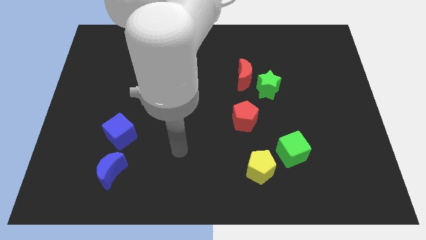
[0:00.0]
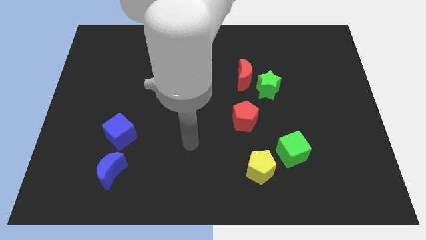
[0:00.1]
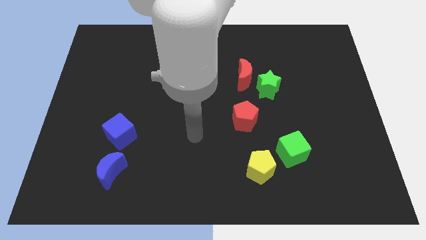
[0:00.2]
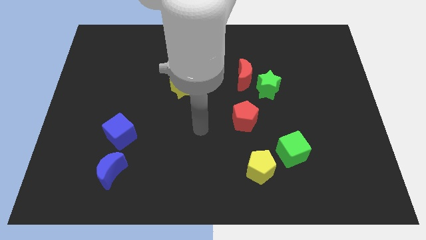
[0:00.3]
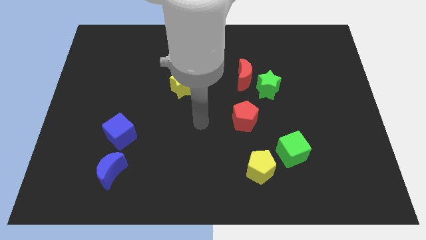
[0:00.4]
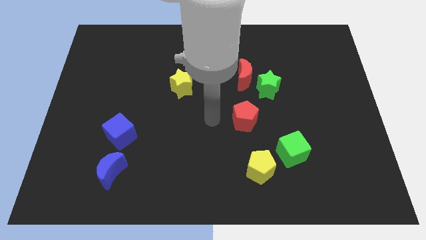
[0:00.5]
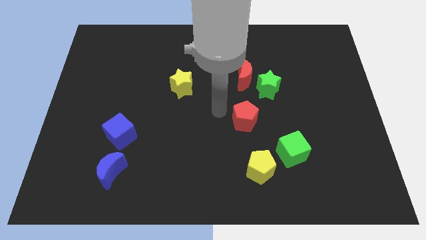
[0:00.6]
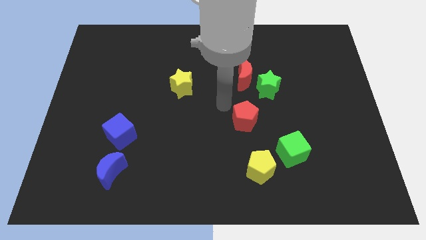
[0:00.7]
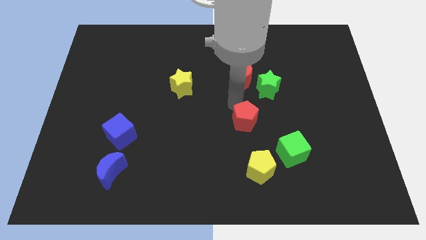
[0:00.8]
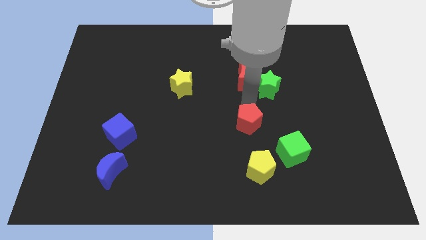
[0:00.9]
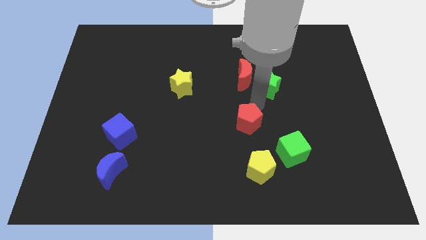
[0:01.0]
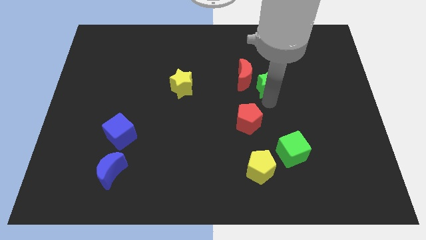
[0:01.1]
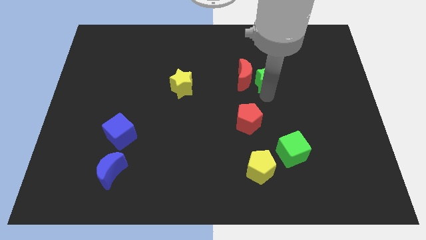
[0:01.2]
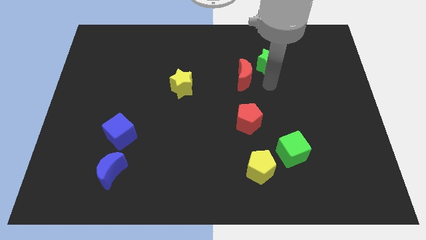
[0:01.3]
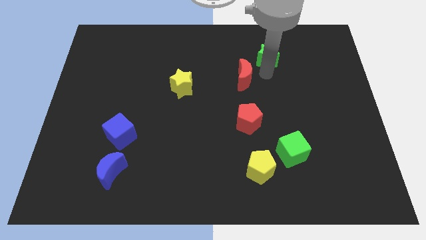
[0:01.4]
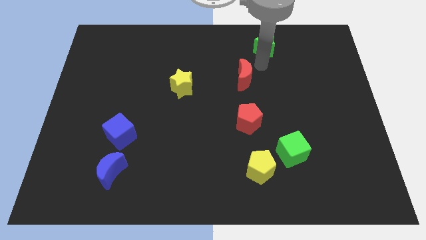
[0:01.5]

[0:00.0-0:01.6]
move the red moon away from the green star

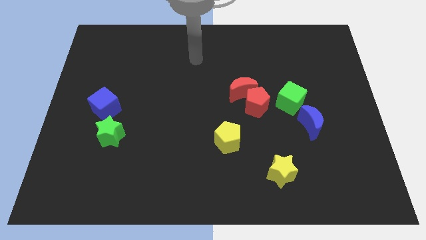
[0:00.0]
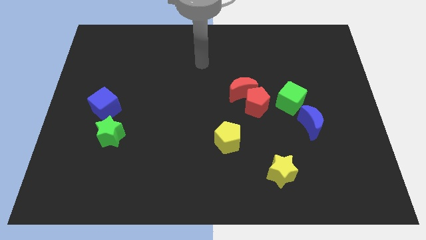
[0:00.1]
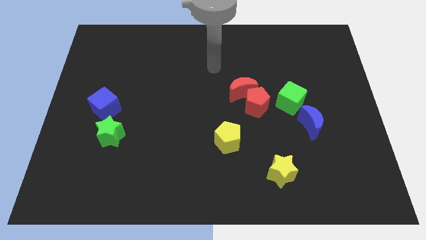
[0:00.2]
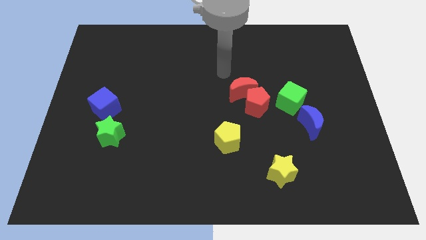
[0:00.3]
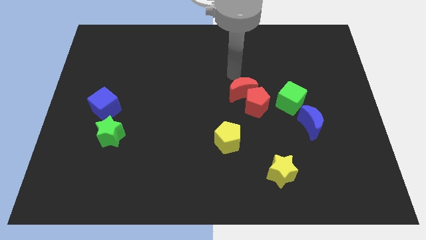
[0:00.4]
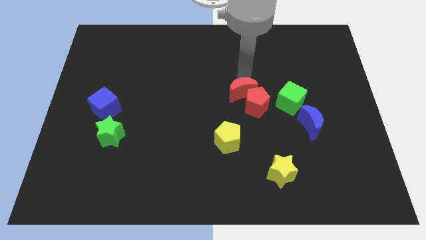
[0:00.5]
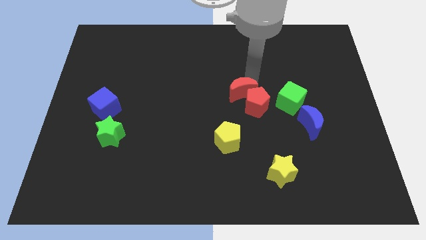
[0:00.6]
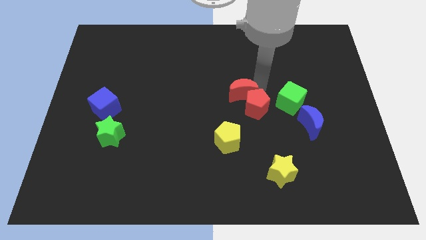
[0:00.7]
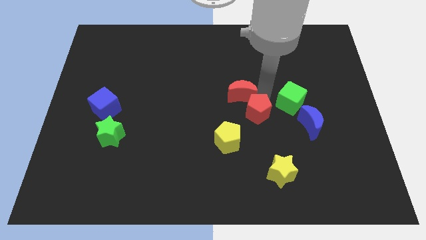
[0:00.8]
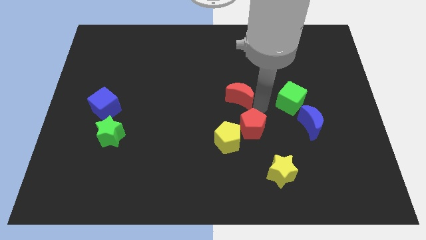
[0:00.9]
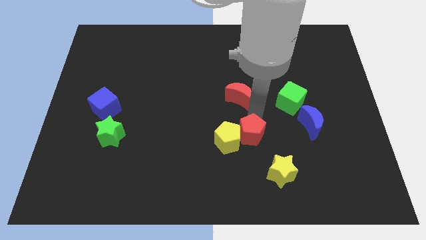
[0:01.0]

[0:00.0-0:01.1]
move the red moon away from the red pentagon

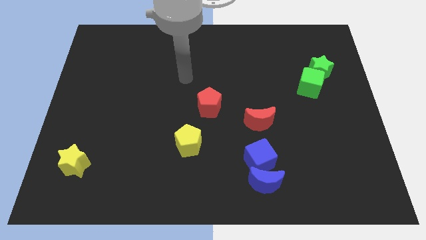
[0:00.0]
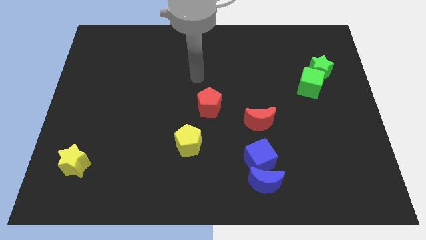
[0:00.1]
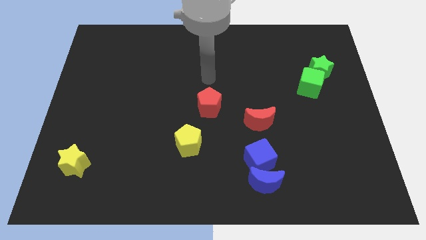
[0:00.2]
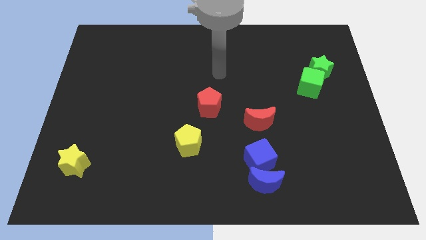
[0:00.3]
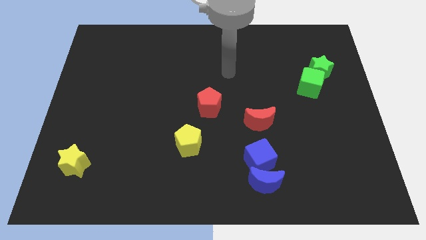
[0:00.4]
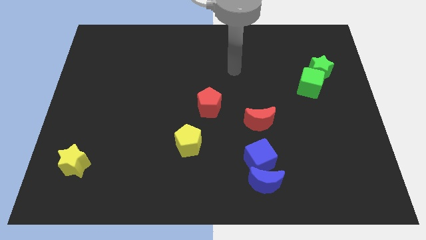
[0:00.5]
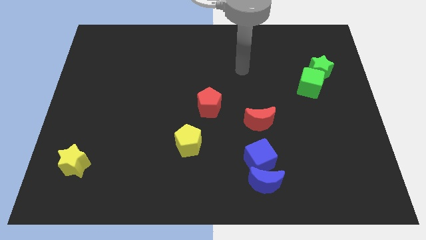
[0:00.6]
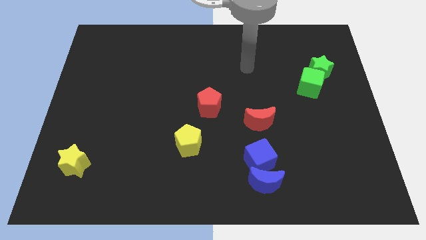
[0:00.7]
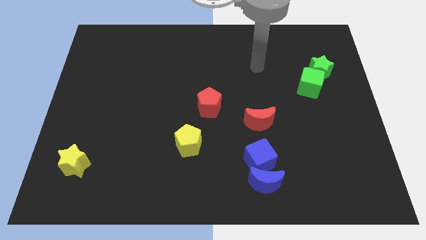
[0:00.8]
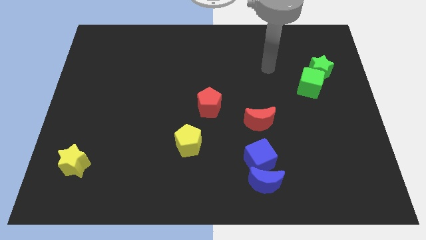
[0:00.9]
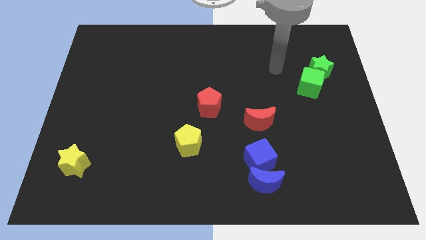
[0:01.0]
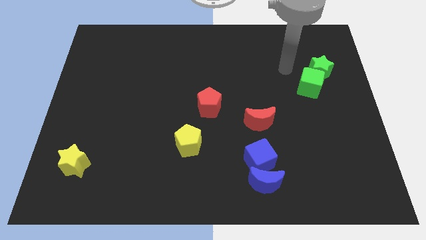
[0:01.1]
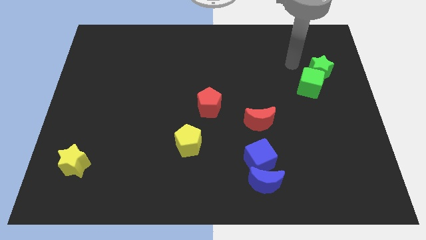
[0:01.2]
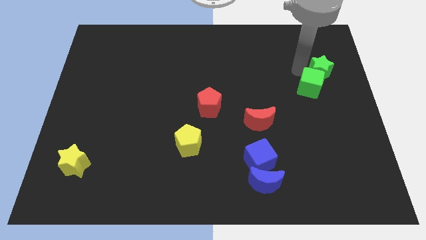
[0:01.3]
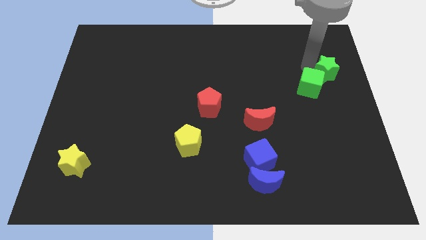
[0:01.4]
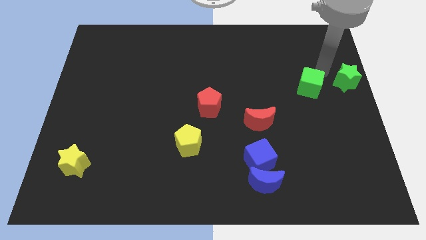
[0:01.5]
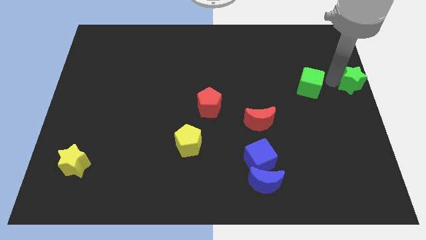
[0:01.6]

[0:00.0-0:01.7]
separate the green cube from the green star

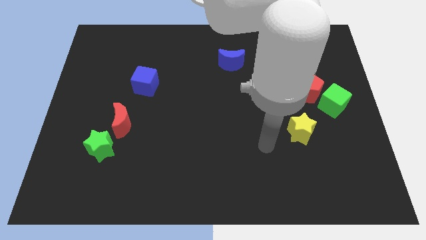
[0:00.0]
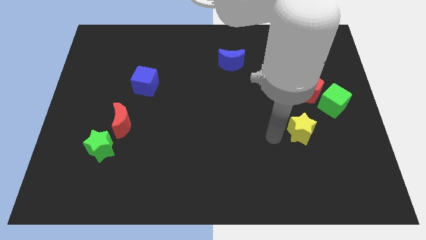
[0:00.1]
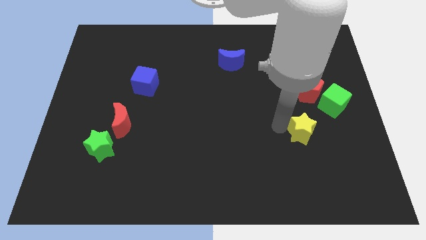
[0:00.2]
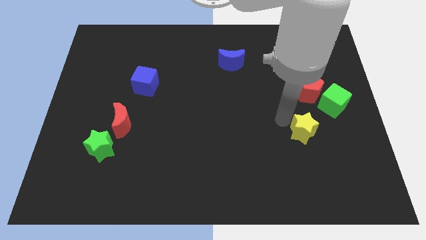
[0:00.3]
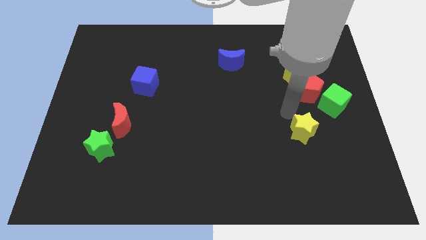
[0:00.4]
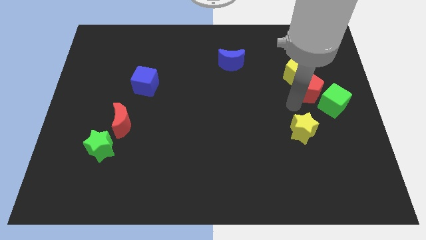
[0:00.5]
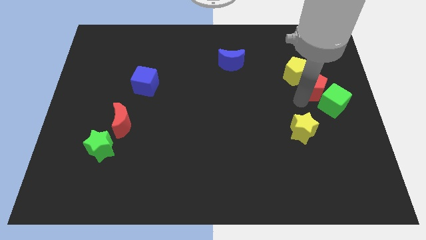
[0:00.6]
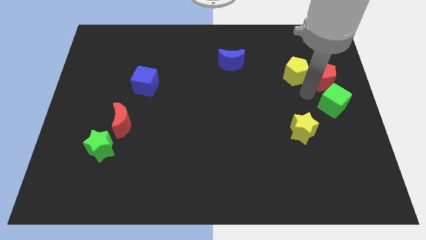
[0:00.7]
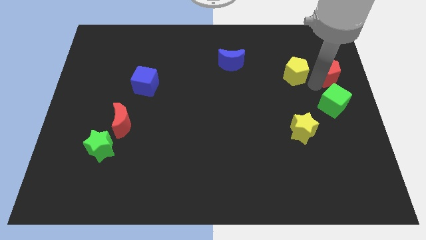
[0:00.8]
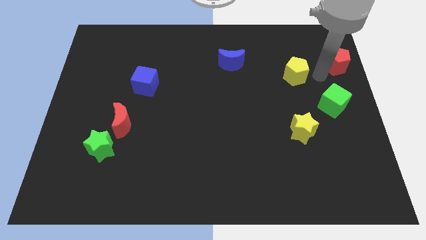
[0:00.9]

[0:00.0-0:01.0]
move the yellow pentagon away from the red pentagon

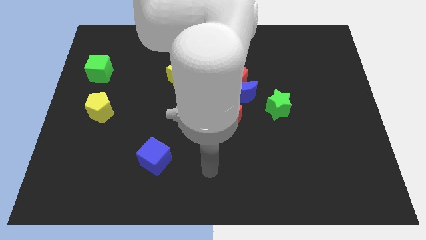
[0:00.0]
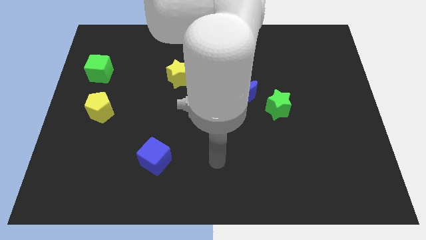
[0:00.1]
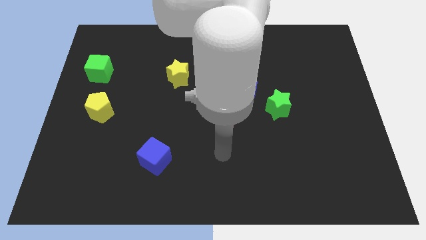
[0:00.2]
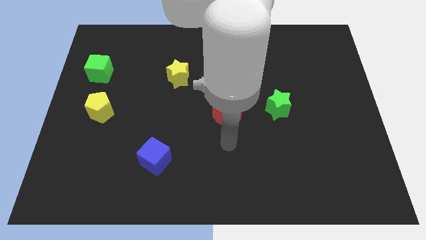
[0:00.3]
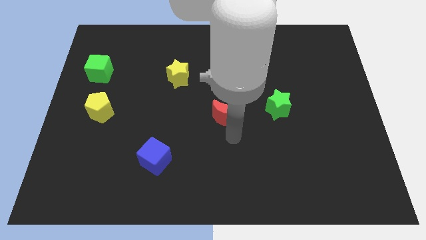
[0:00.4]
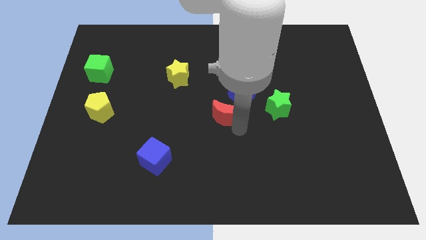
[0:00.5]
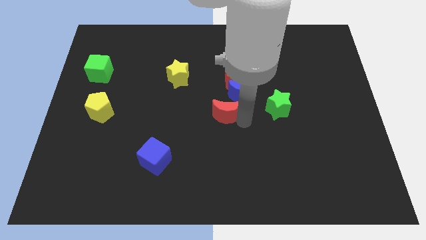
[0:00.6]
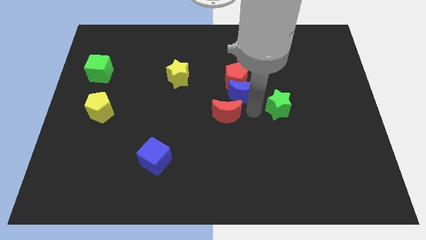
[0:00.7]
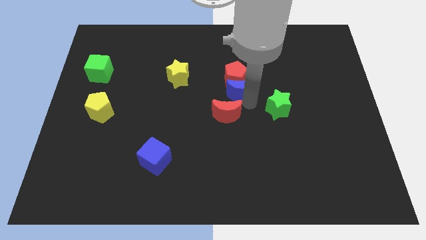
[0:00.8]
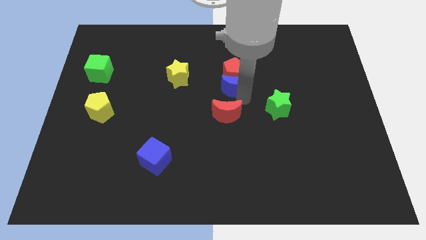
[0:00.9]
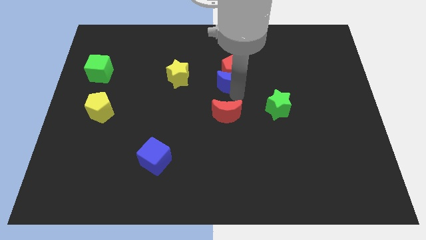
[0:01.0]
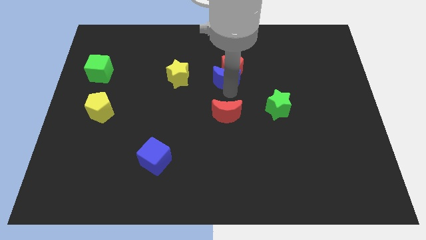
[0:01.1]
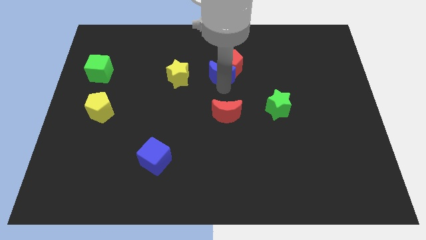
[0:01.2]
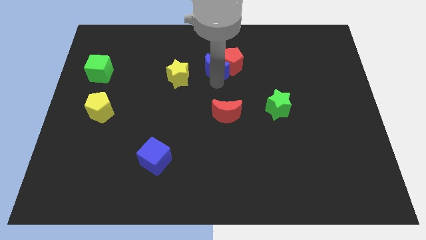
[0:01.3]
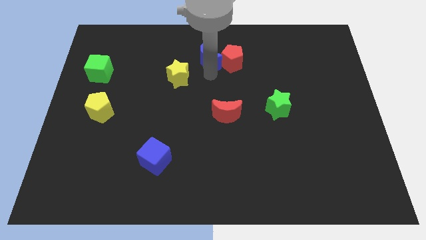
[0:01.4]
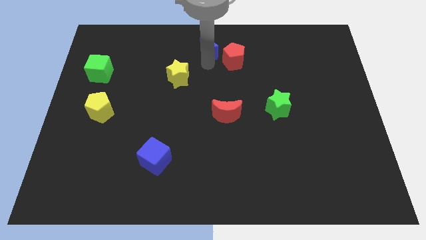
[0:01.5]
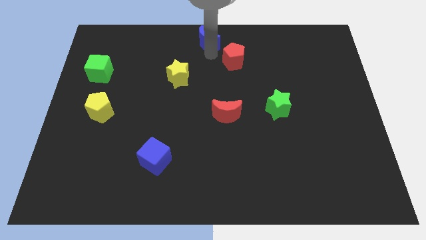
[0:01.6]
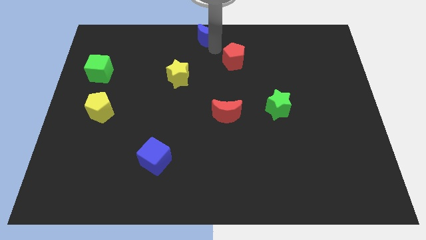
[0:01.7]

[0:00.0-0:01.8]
move the red pentagon away from the blue moon

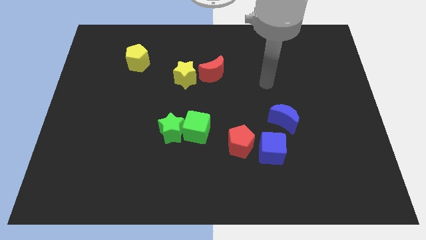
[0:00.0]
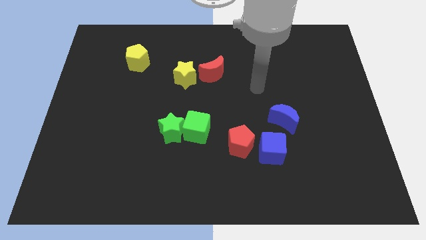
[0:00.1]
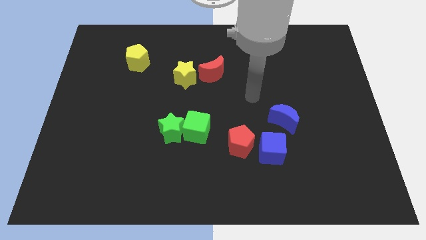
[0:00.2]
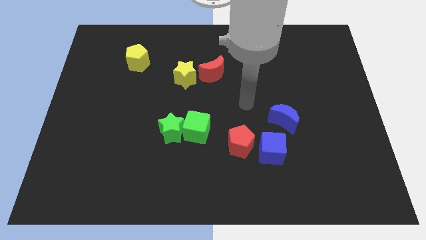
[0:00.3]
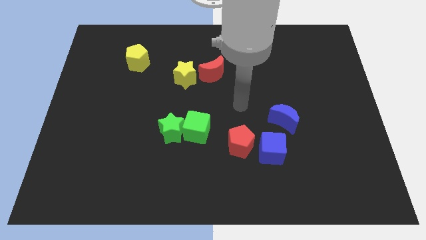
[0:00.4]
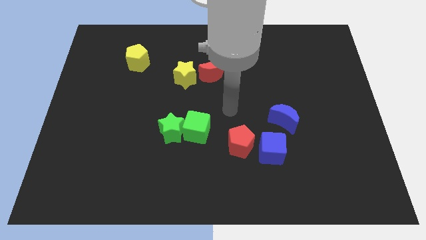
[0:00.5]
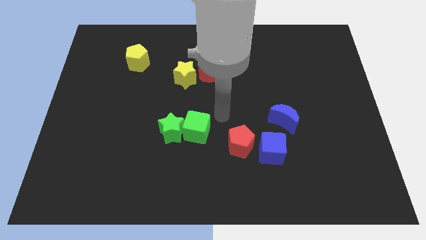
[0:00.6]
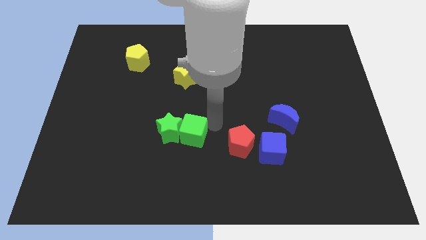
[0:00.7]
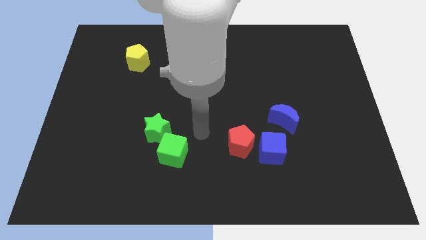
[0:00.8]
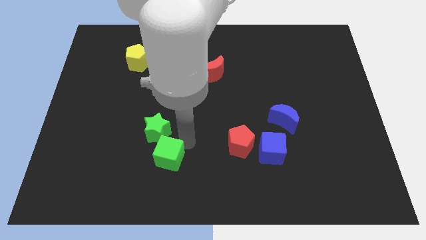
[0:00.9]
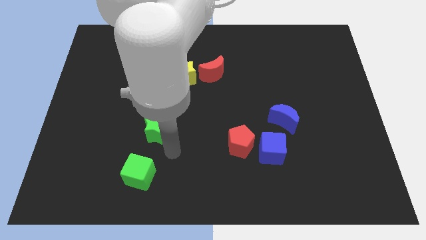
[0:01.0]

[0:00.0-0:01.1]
separate the green star from the green cube

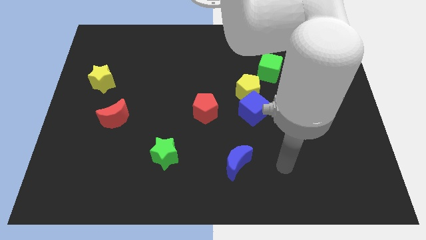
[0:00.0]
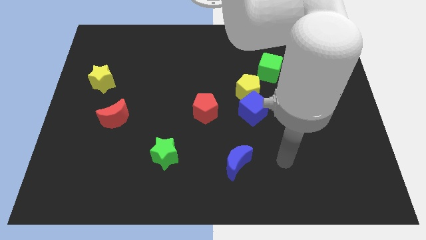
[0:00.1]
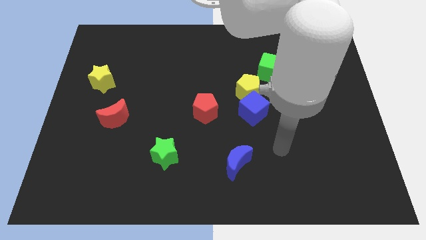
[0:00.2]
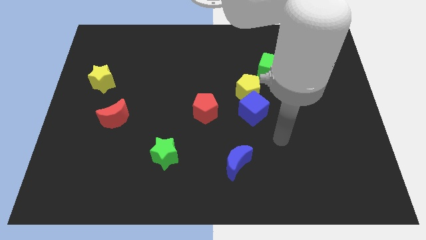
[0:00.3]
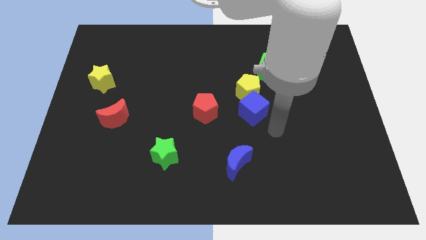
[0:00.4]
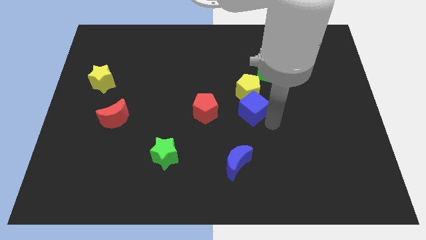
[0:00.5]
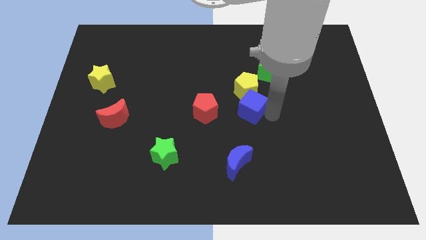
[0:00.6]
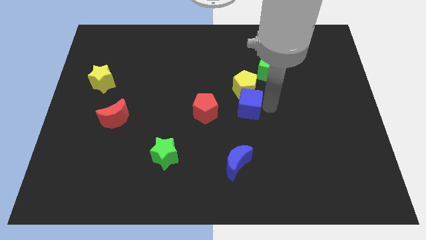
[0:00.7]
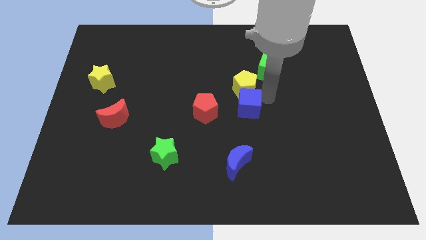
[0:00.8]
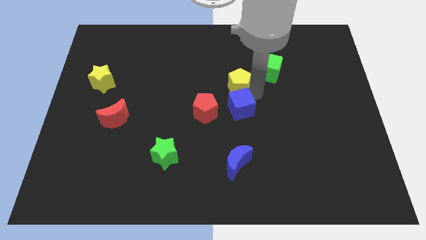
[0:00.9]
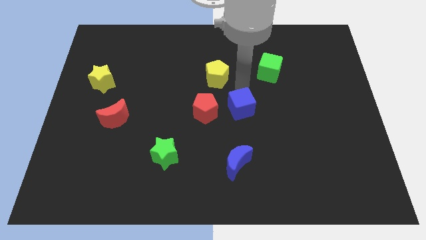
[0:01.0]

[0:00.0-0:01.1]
pull the blue cube apart from the yellow pentagon

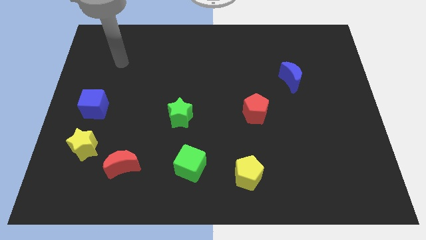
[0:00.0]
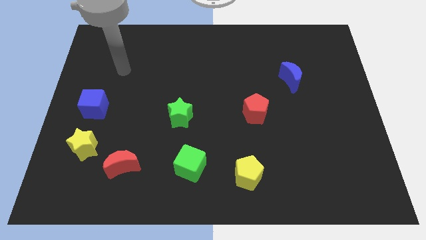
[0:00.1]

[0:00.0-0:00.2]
pull the red moon apart from the yellow star
